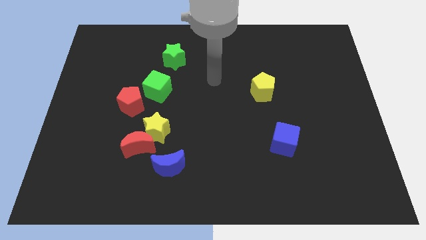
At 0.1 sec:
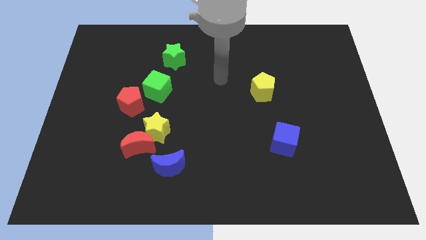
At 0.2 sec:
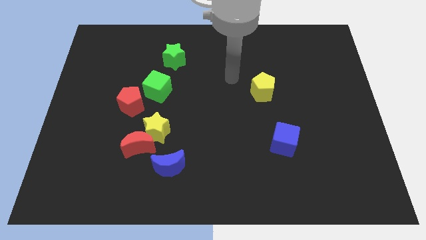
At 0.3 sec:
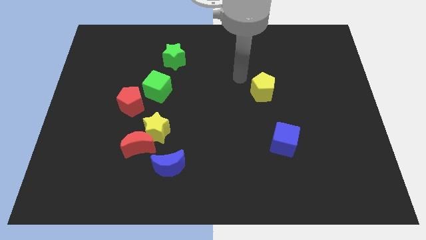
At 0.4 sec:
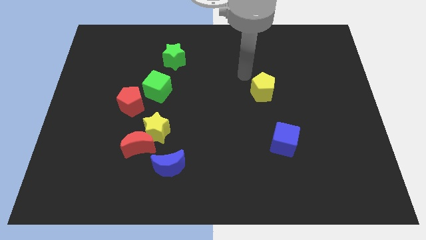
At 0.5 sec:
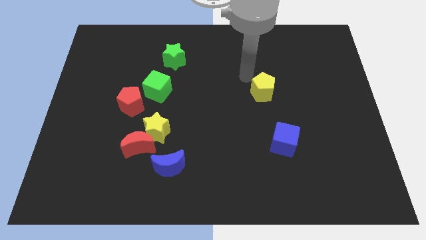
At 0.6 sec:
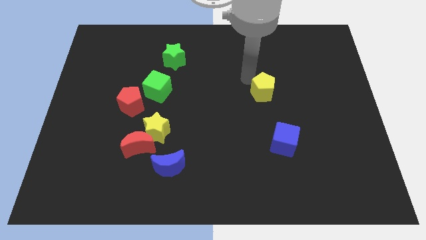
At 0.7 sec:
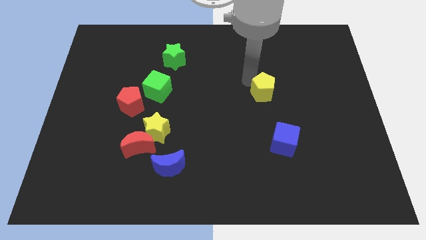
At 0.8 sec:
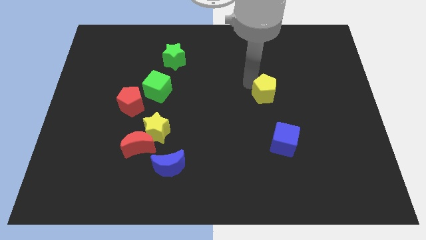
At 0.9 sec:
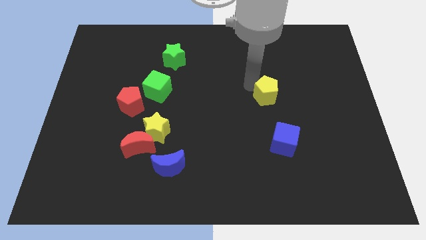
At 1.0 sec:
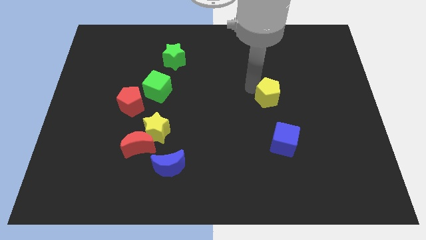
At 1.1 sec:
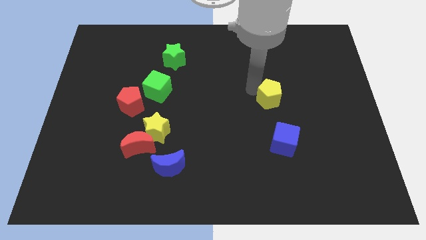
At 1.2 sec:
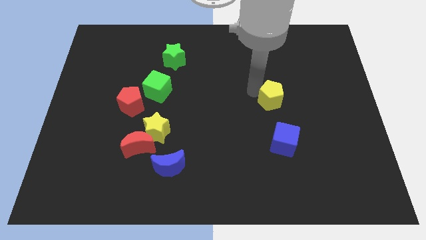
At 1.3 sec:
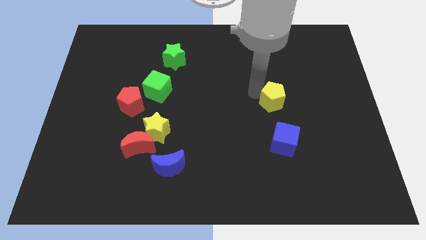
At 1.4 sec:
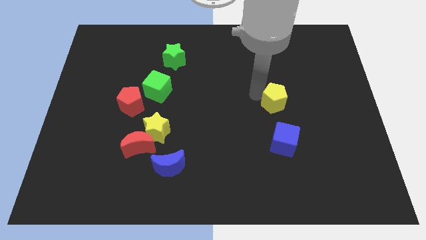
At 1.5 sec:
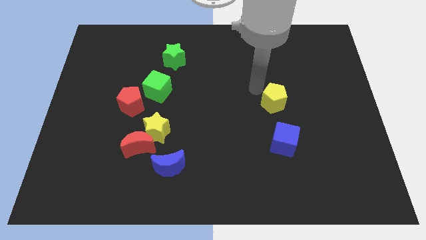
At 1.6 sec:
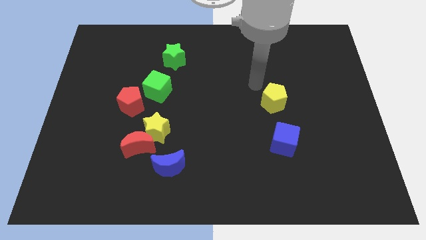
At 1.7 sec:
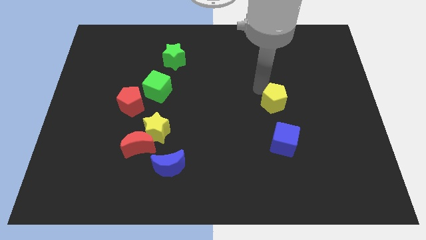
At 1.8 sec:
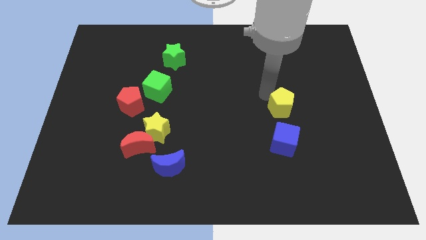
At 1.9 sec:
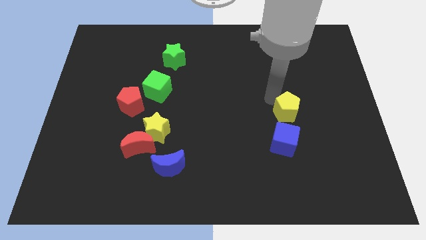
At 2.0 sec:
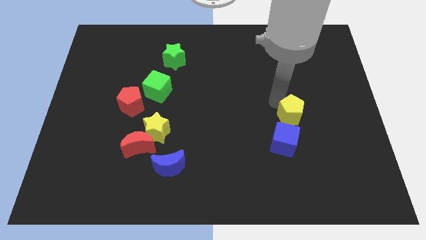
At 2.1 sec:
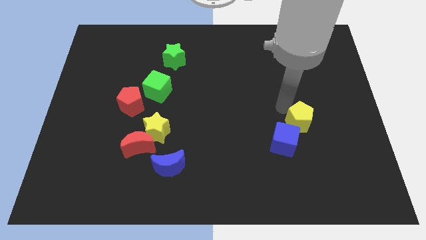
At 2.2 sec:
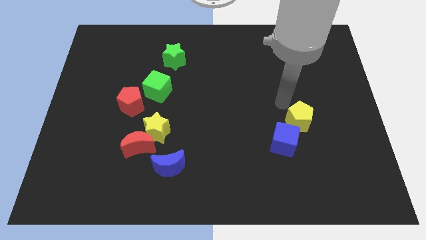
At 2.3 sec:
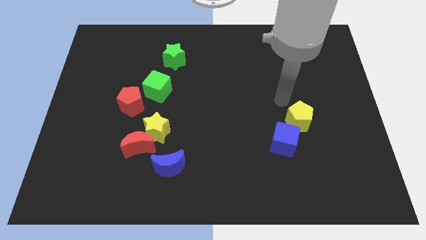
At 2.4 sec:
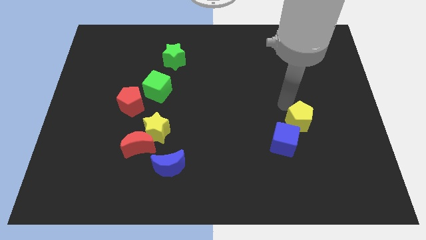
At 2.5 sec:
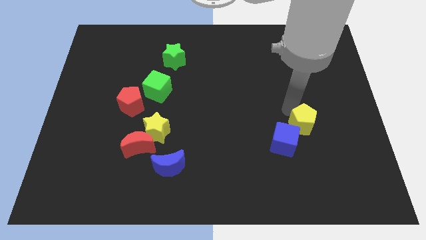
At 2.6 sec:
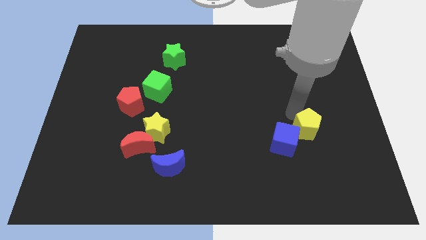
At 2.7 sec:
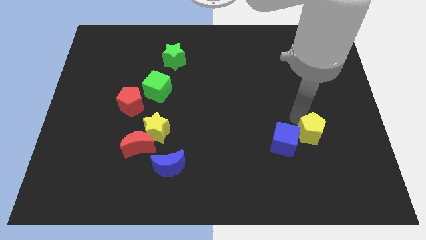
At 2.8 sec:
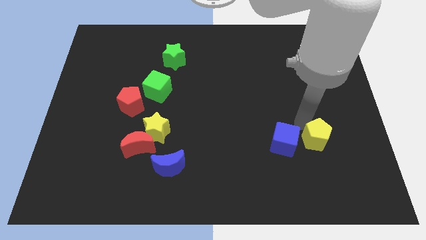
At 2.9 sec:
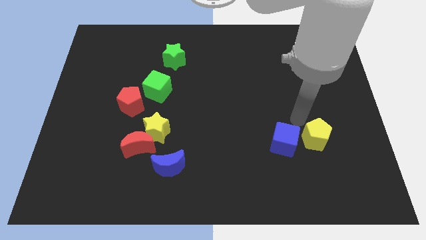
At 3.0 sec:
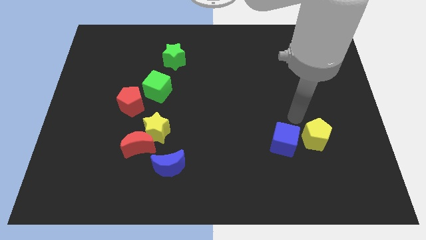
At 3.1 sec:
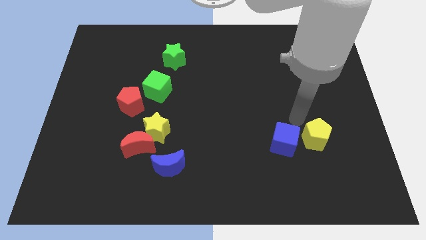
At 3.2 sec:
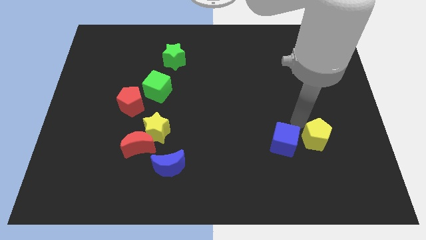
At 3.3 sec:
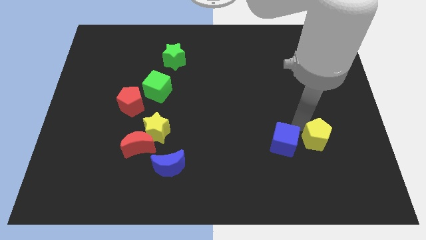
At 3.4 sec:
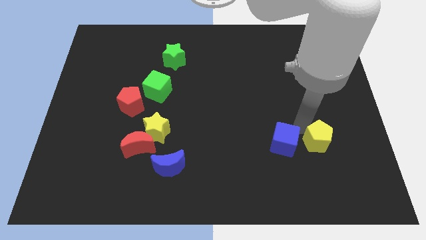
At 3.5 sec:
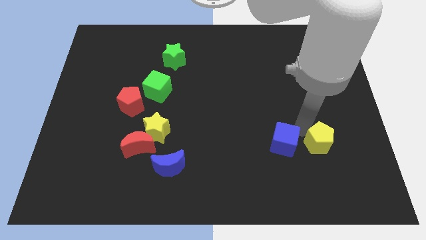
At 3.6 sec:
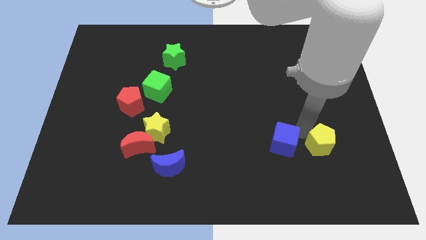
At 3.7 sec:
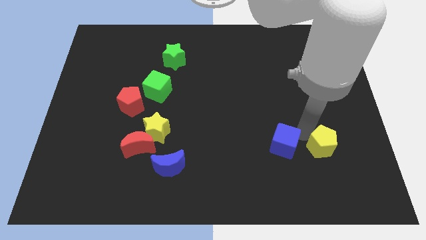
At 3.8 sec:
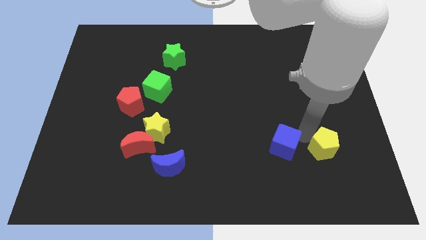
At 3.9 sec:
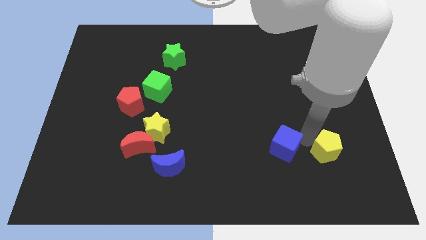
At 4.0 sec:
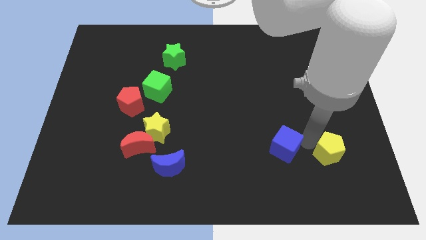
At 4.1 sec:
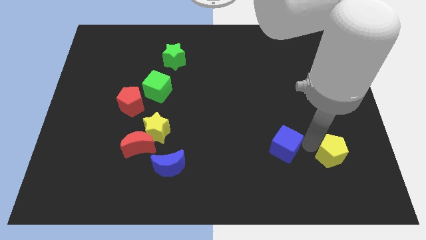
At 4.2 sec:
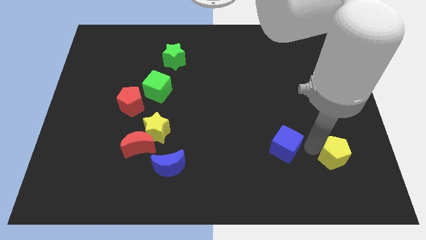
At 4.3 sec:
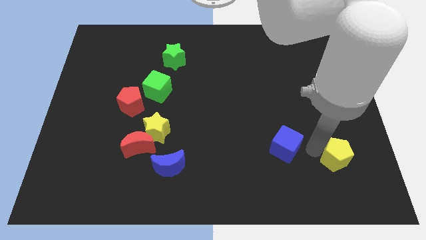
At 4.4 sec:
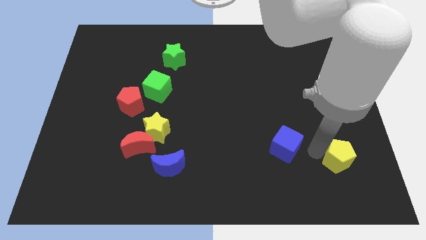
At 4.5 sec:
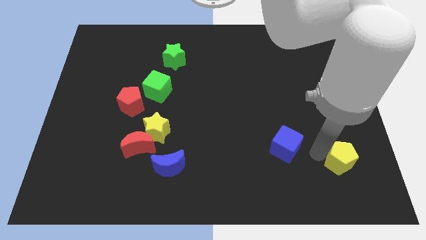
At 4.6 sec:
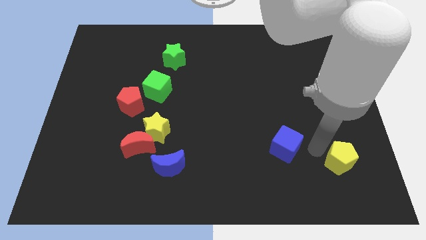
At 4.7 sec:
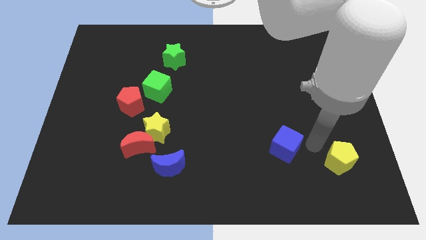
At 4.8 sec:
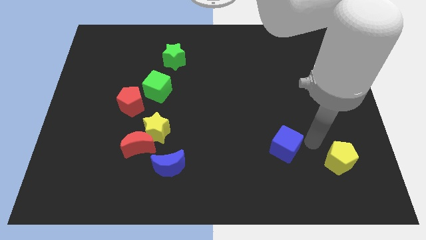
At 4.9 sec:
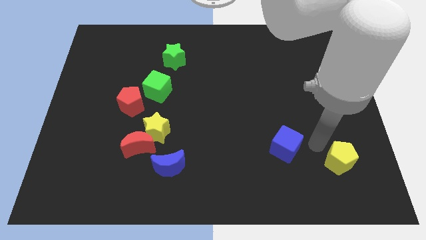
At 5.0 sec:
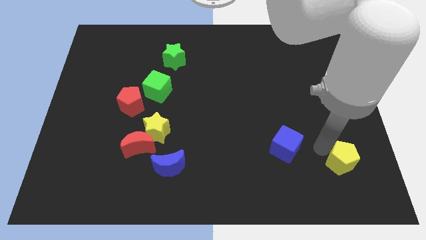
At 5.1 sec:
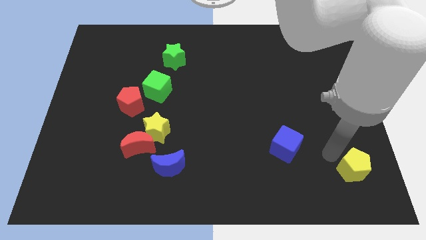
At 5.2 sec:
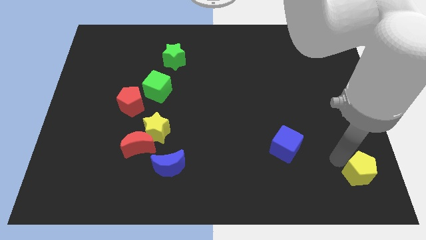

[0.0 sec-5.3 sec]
move the yellow pentagon to the bottom right corner
